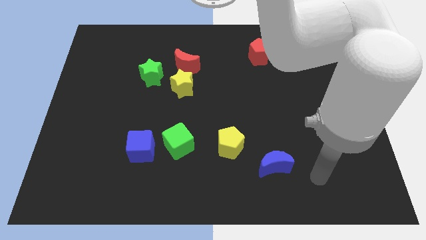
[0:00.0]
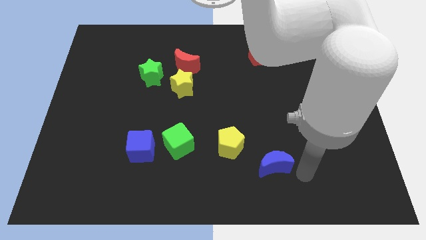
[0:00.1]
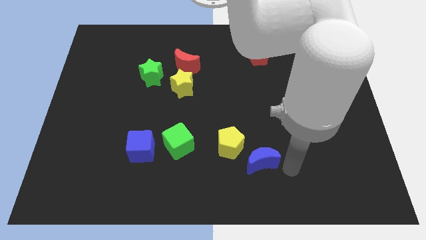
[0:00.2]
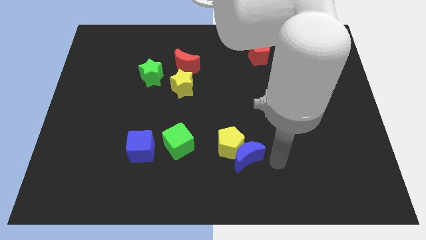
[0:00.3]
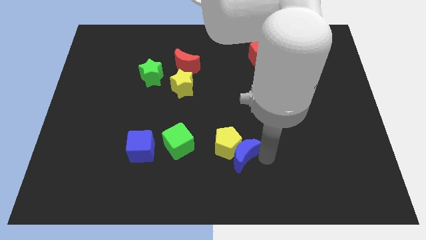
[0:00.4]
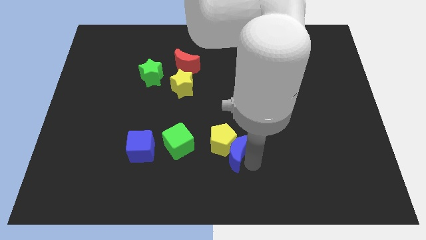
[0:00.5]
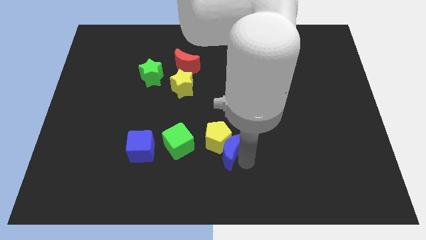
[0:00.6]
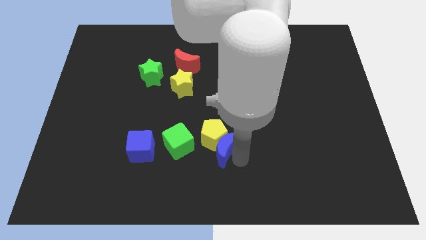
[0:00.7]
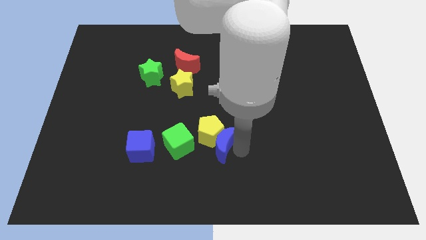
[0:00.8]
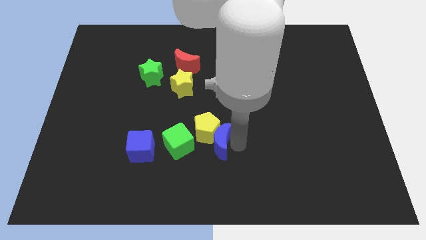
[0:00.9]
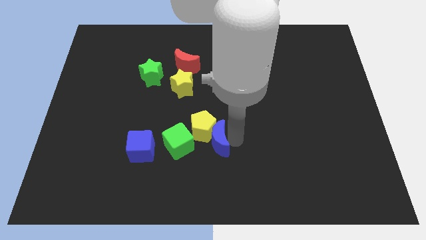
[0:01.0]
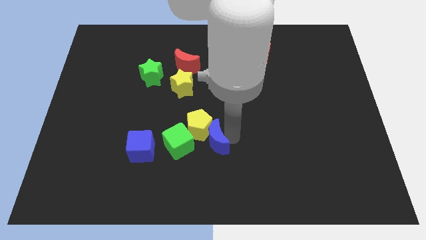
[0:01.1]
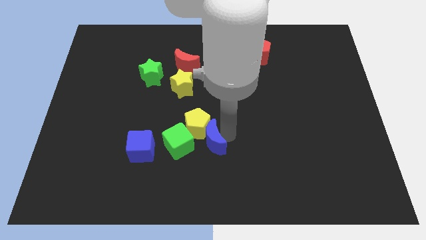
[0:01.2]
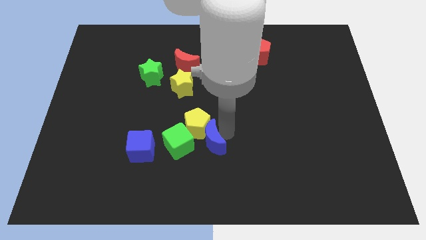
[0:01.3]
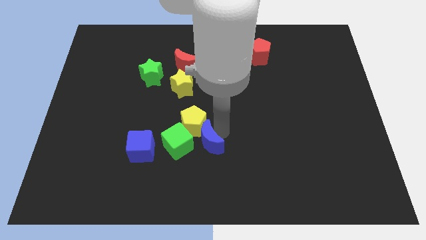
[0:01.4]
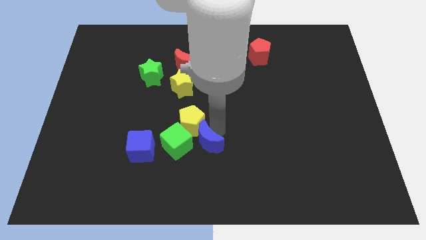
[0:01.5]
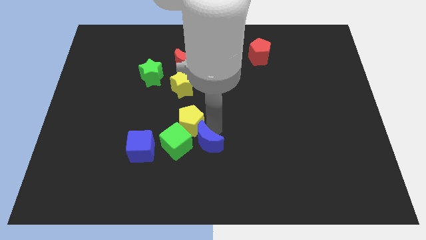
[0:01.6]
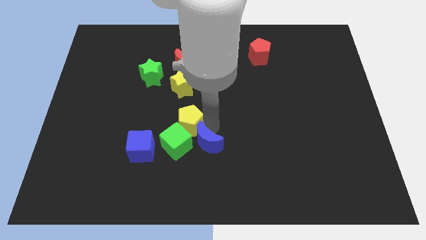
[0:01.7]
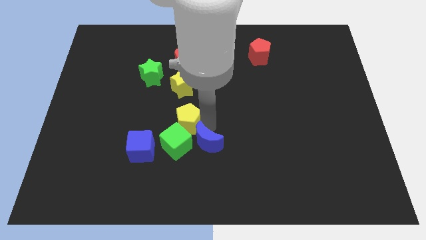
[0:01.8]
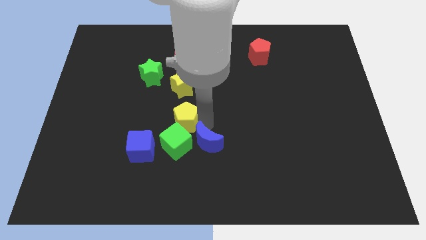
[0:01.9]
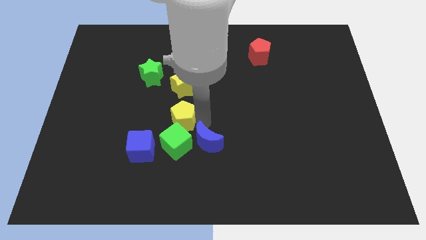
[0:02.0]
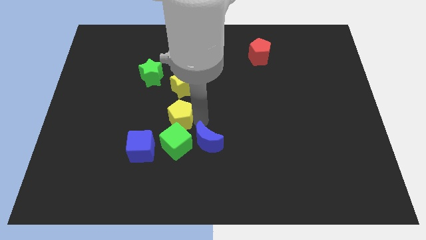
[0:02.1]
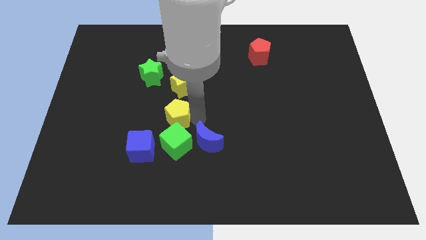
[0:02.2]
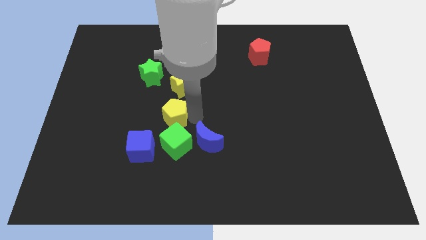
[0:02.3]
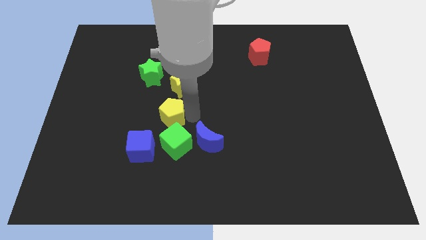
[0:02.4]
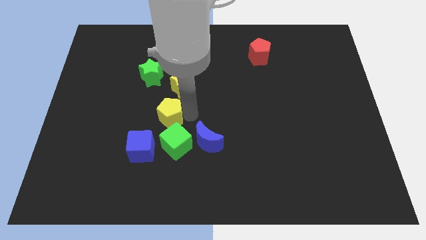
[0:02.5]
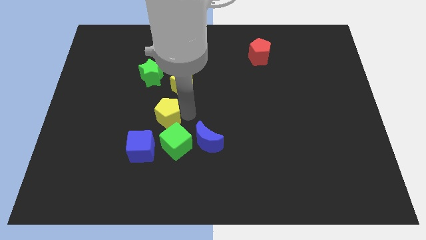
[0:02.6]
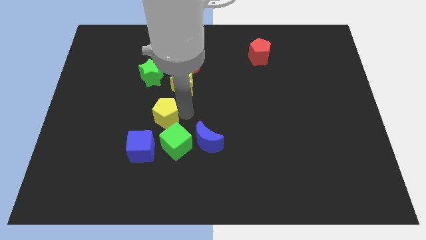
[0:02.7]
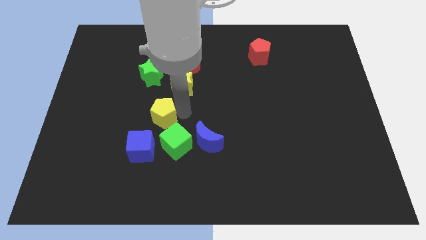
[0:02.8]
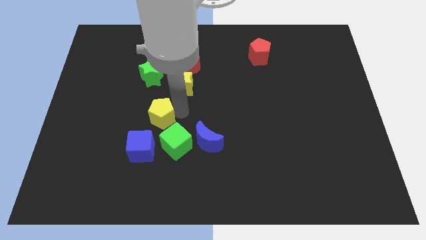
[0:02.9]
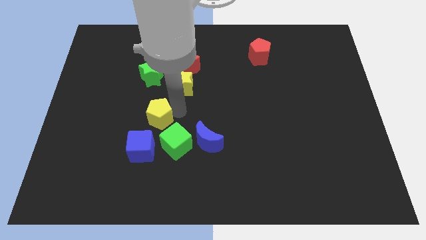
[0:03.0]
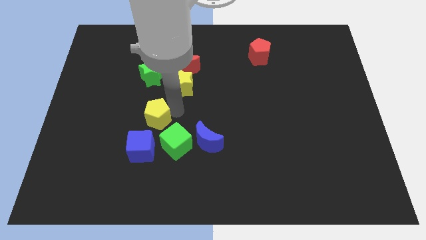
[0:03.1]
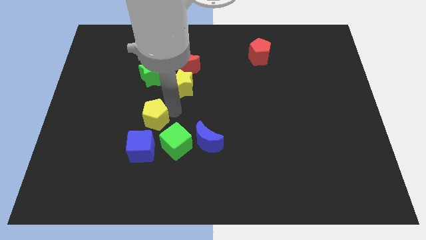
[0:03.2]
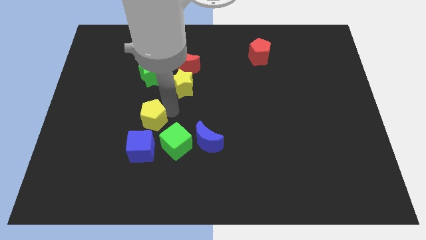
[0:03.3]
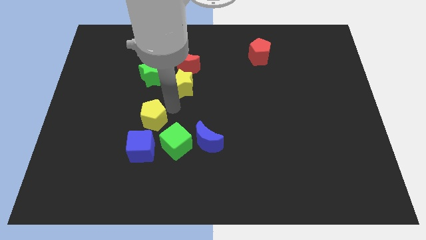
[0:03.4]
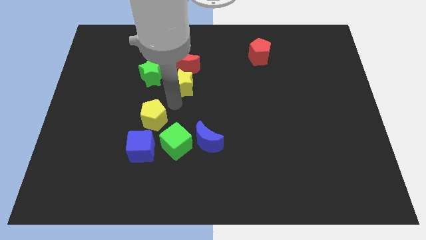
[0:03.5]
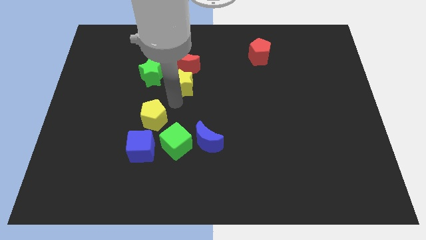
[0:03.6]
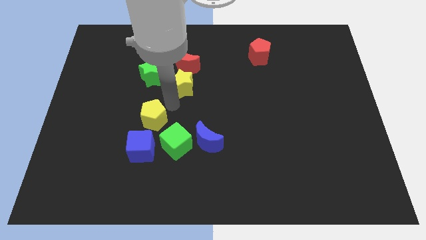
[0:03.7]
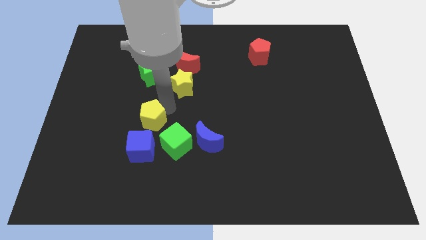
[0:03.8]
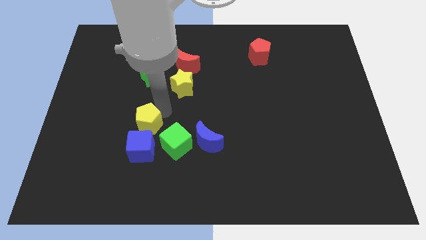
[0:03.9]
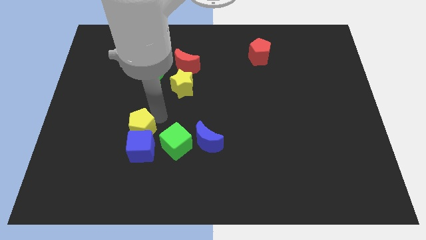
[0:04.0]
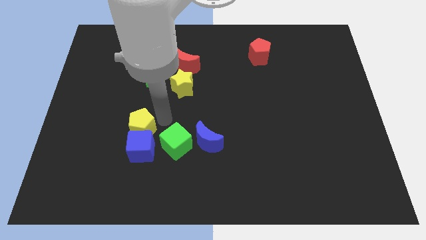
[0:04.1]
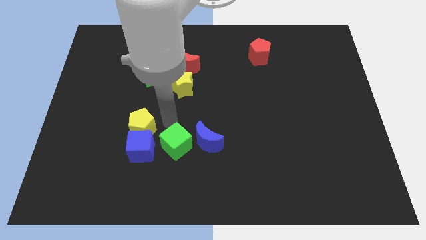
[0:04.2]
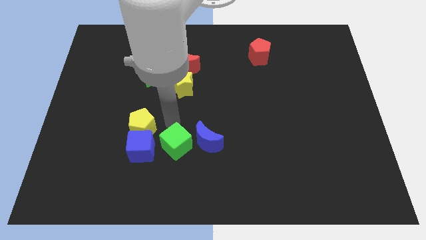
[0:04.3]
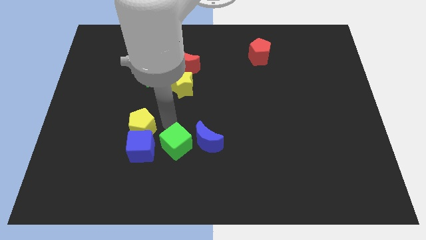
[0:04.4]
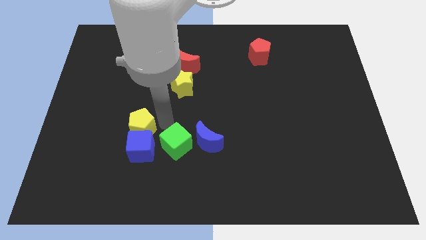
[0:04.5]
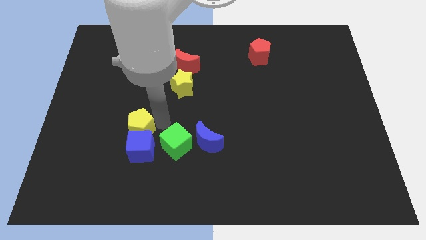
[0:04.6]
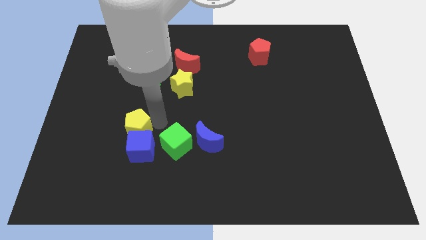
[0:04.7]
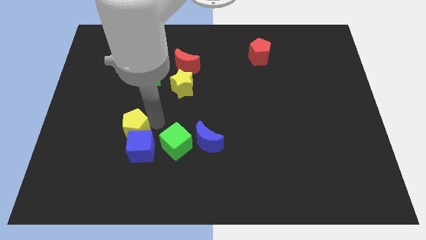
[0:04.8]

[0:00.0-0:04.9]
slide the yellow pentagon to the left

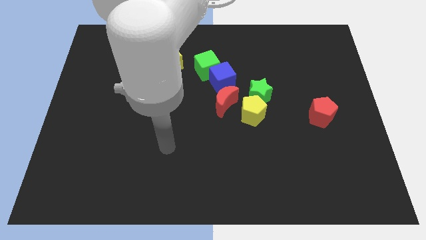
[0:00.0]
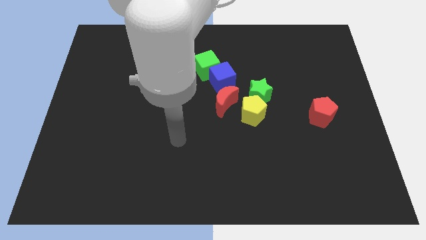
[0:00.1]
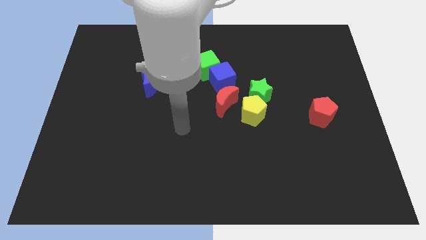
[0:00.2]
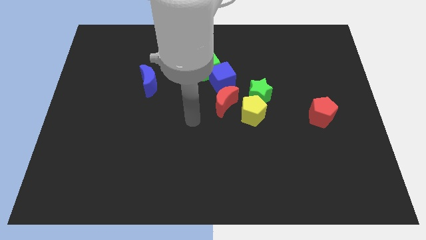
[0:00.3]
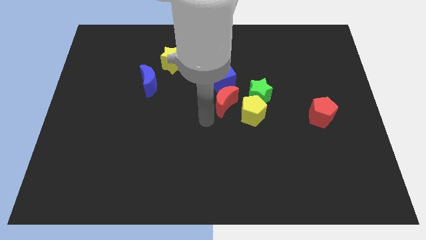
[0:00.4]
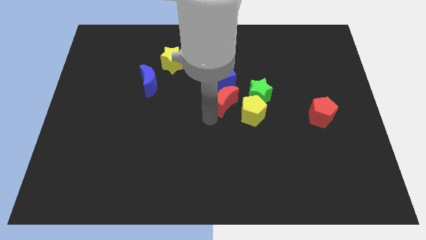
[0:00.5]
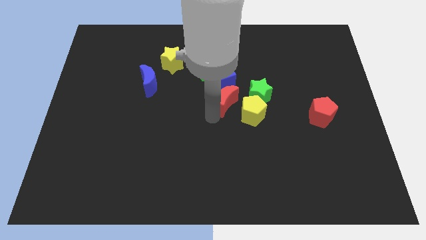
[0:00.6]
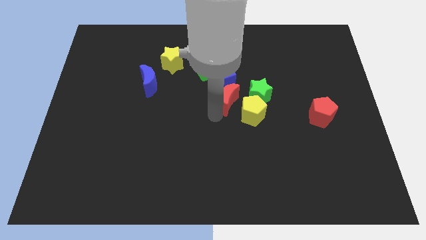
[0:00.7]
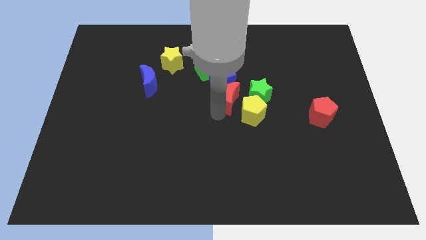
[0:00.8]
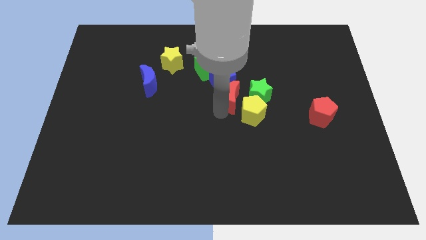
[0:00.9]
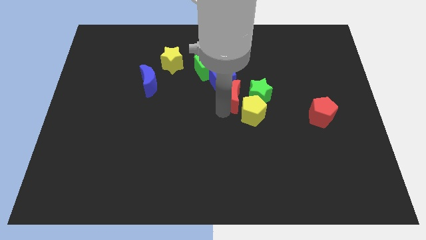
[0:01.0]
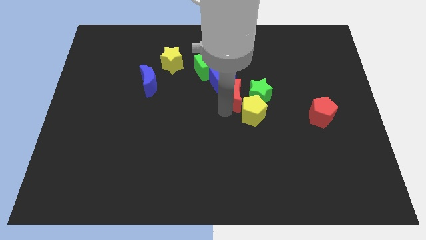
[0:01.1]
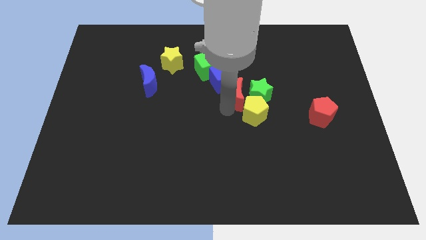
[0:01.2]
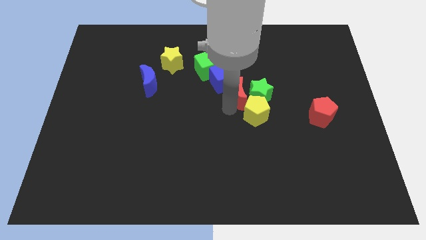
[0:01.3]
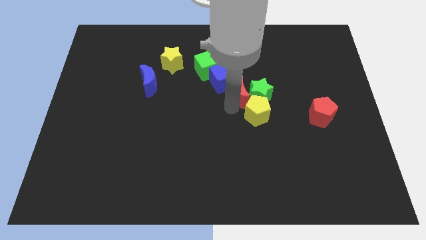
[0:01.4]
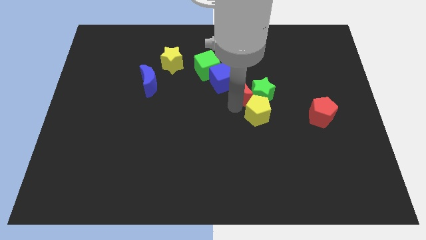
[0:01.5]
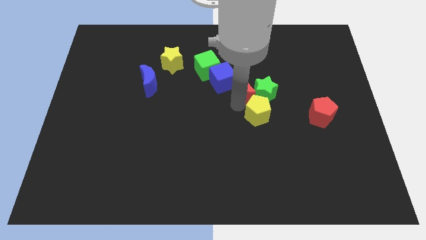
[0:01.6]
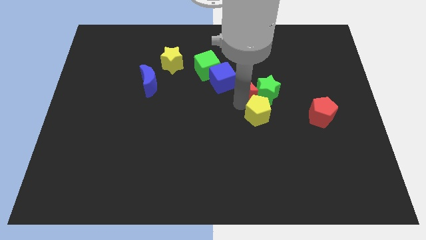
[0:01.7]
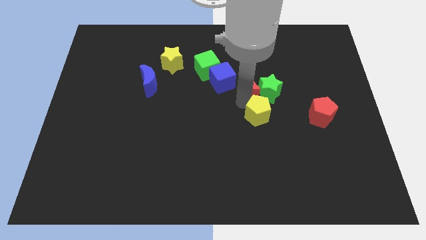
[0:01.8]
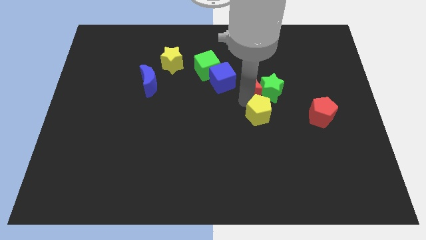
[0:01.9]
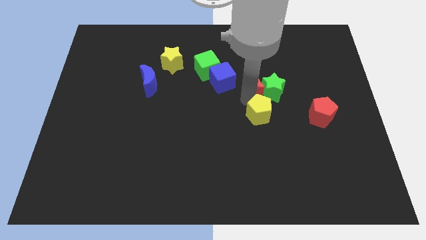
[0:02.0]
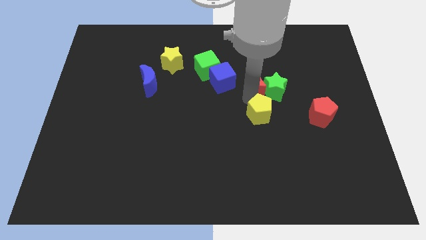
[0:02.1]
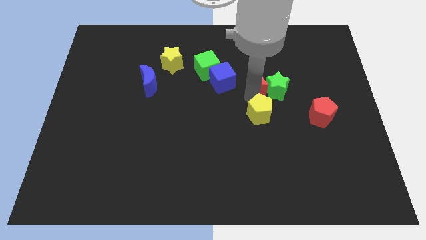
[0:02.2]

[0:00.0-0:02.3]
slightly push the red moon right

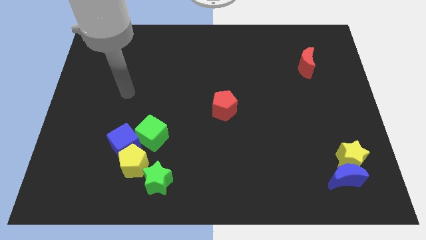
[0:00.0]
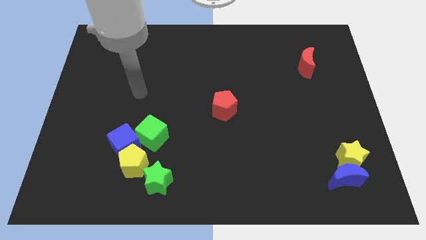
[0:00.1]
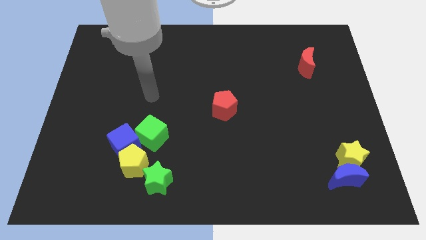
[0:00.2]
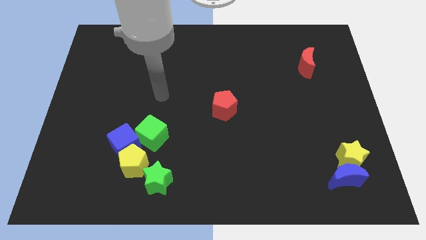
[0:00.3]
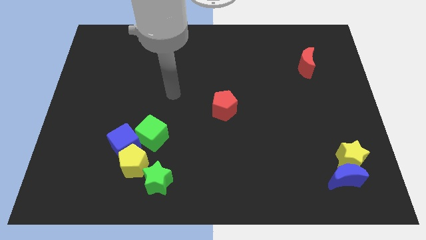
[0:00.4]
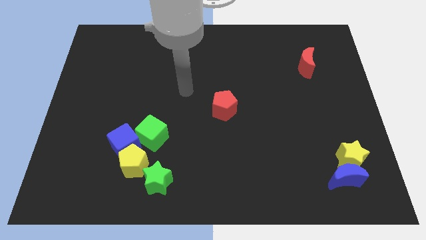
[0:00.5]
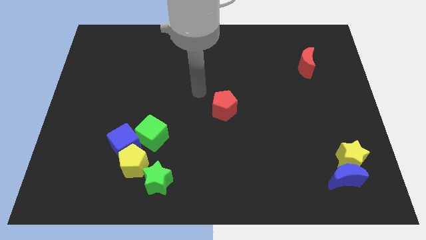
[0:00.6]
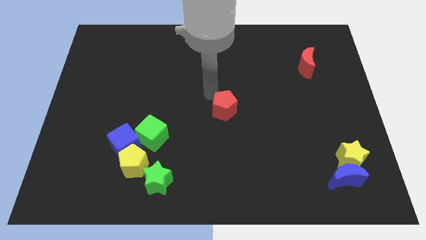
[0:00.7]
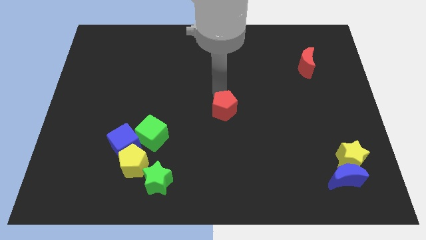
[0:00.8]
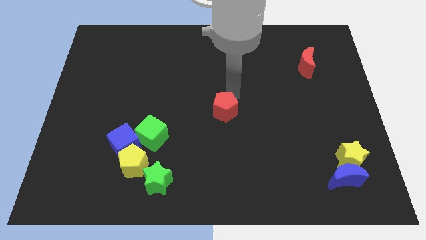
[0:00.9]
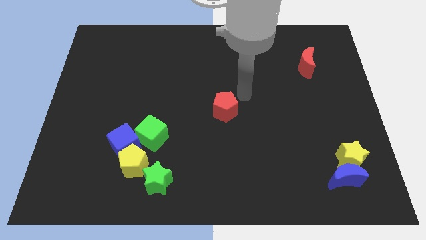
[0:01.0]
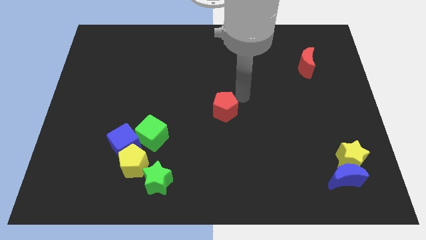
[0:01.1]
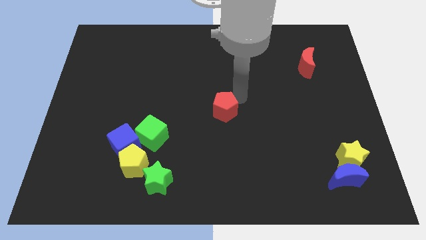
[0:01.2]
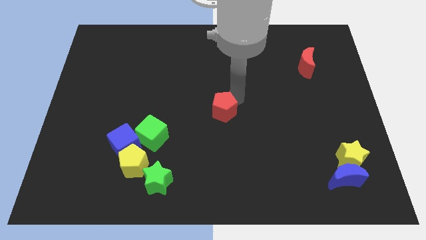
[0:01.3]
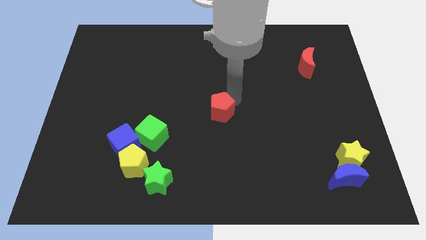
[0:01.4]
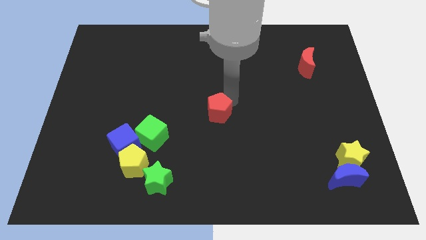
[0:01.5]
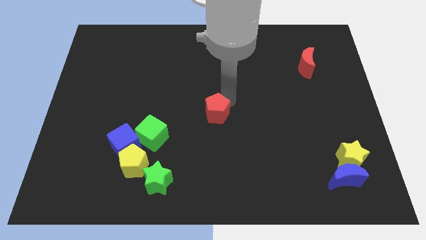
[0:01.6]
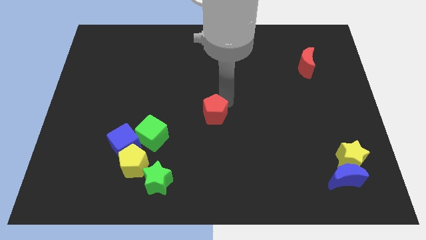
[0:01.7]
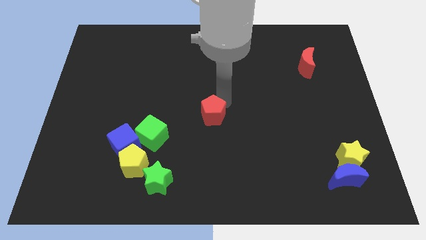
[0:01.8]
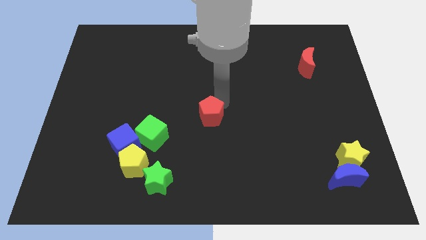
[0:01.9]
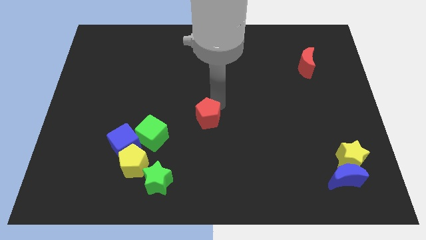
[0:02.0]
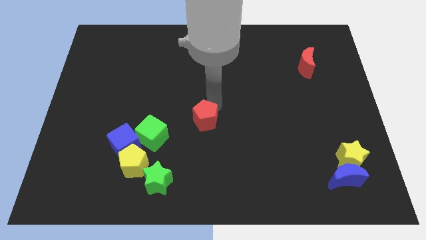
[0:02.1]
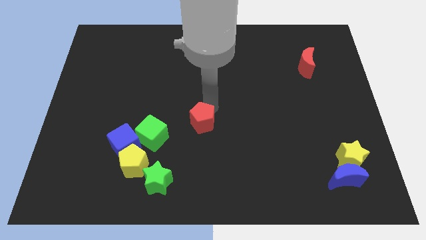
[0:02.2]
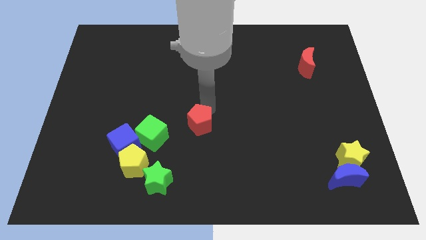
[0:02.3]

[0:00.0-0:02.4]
push the red pentagon down and then left a bit
